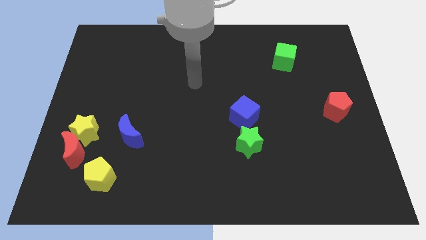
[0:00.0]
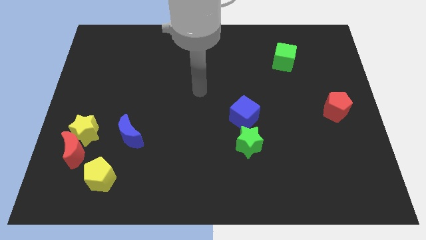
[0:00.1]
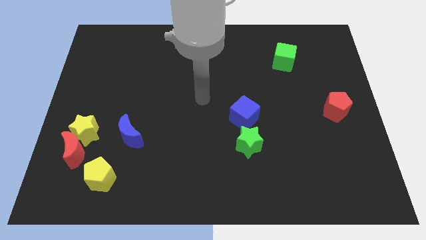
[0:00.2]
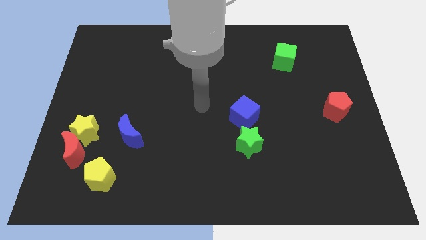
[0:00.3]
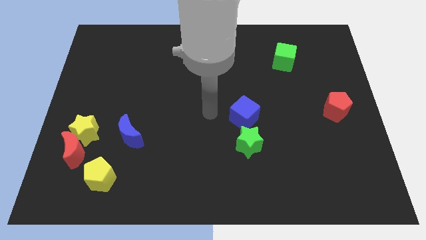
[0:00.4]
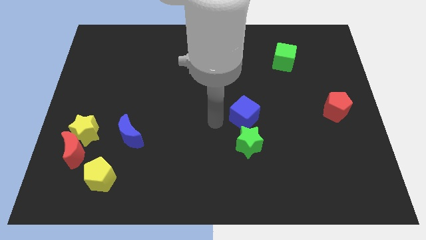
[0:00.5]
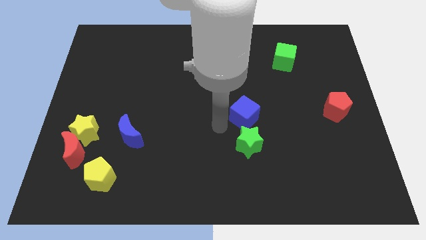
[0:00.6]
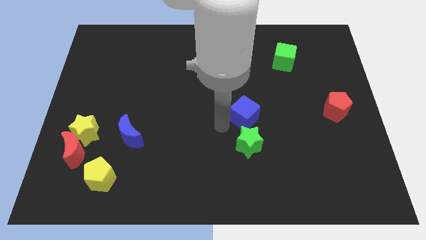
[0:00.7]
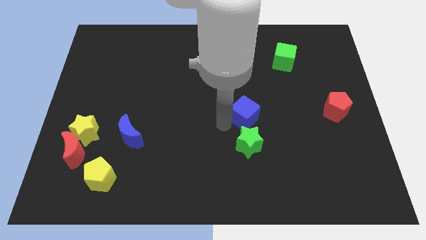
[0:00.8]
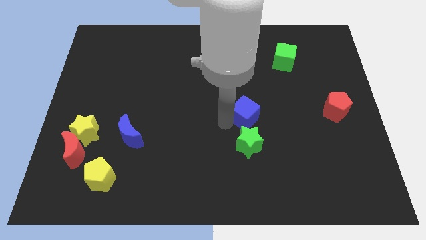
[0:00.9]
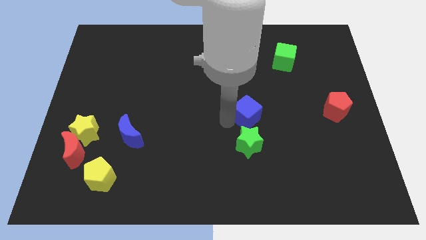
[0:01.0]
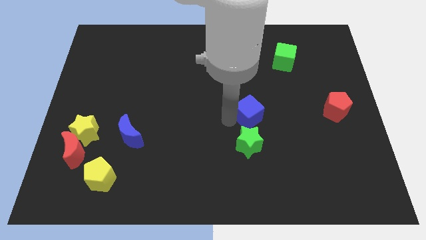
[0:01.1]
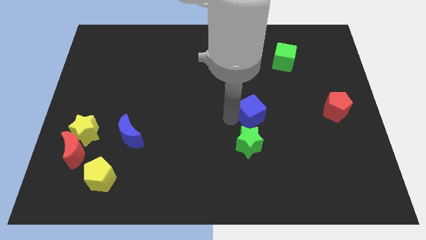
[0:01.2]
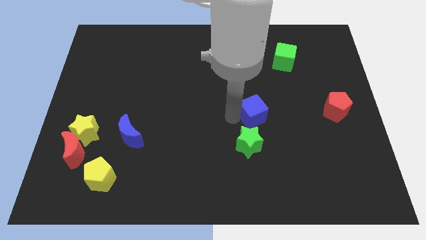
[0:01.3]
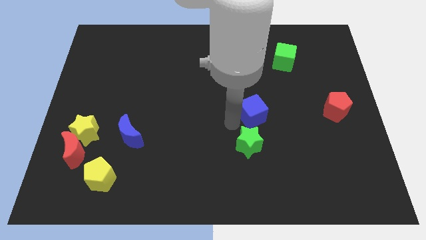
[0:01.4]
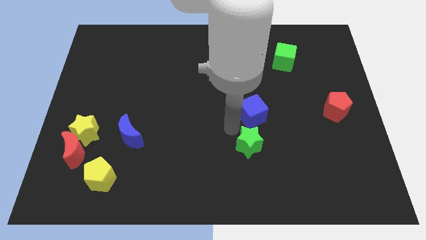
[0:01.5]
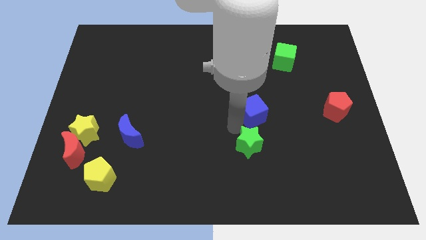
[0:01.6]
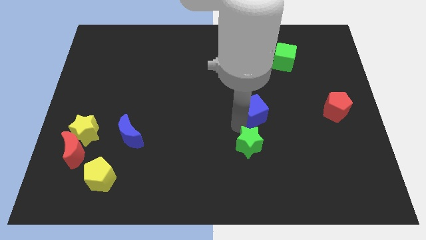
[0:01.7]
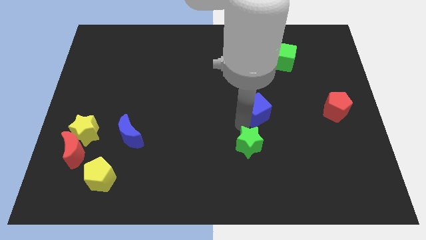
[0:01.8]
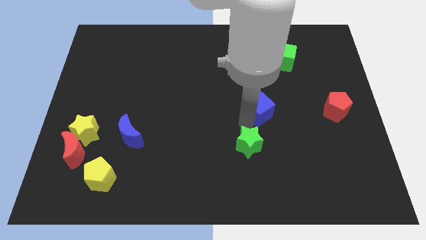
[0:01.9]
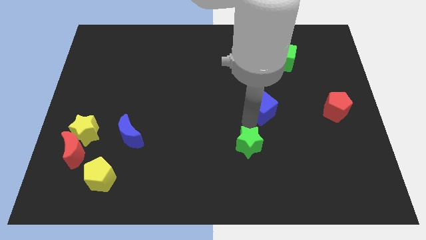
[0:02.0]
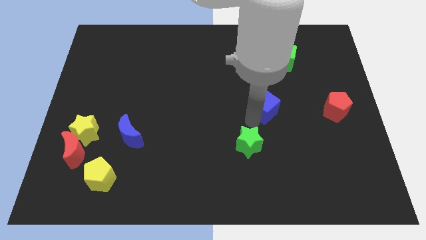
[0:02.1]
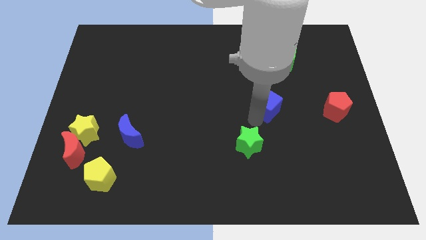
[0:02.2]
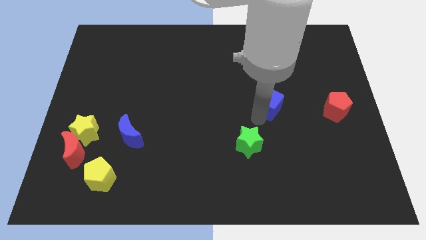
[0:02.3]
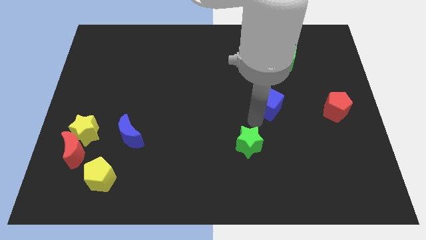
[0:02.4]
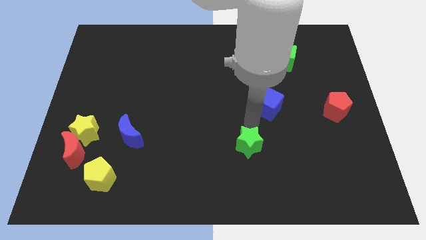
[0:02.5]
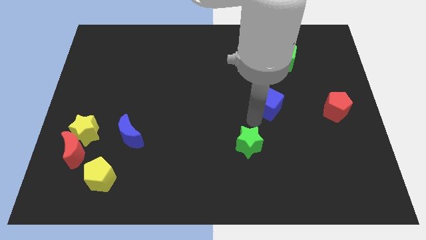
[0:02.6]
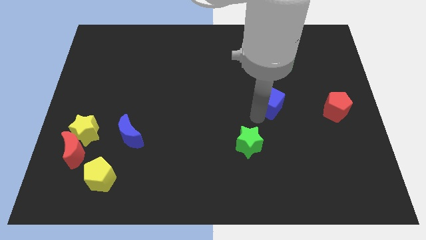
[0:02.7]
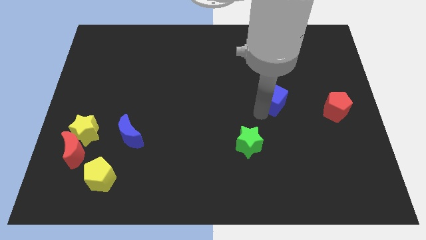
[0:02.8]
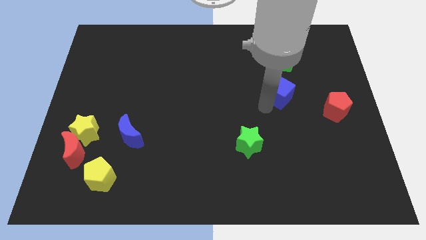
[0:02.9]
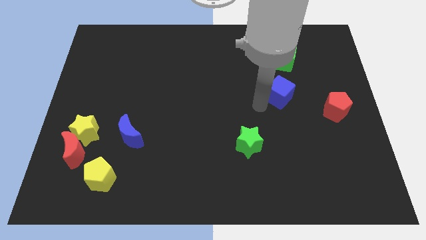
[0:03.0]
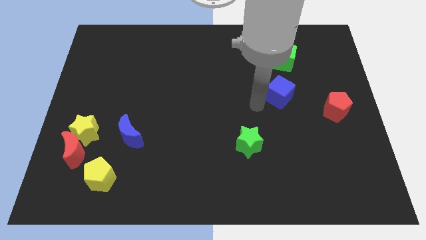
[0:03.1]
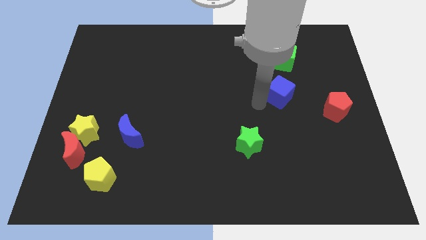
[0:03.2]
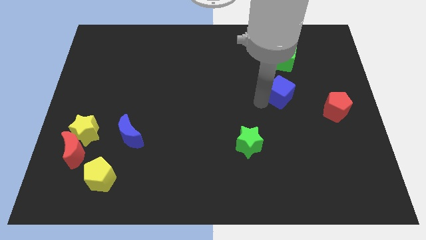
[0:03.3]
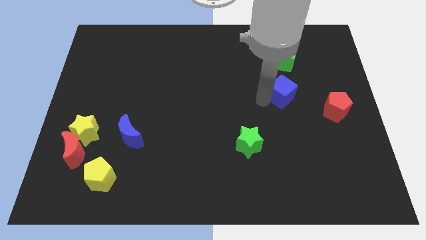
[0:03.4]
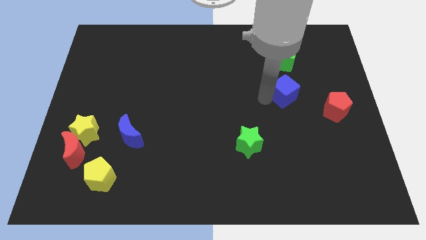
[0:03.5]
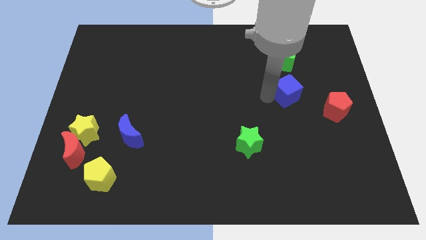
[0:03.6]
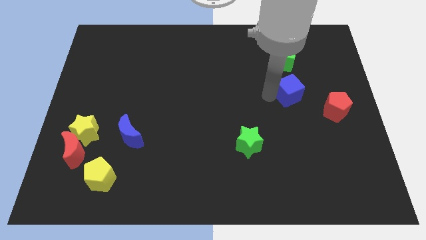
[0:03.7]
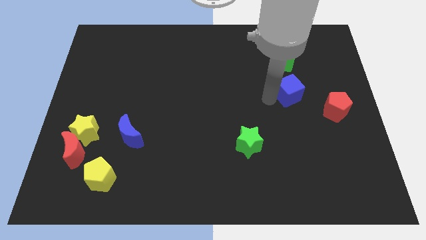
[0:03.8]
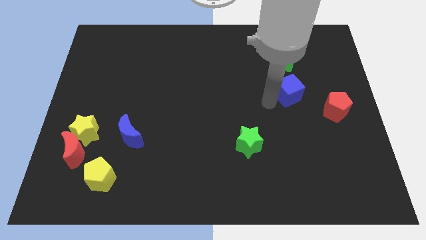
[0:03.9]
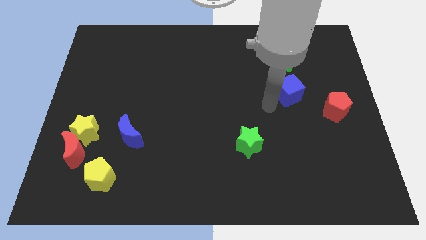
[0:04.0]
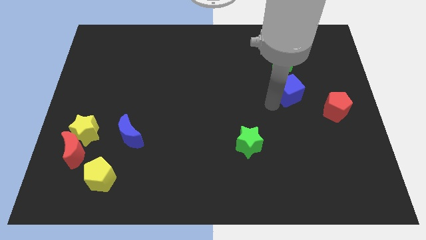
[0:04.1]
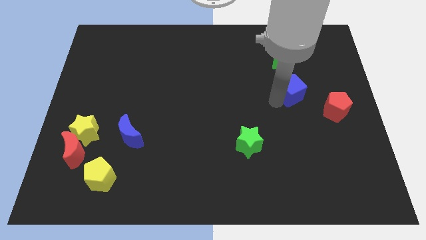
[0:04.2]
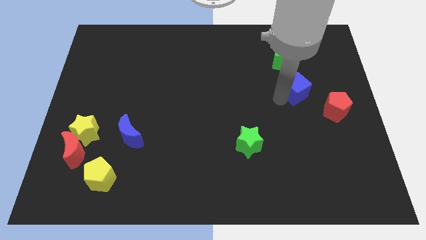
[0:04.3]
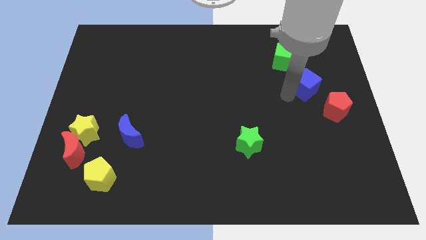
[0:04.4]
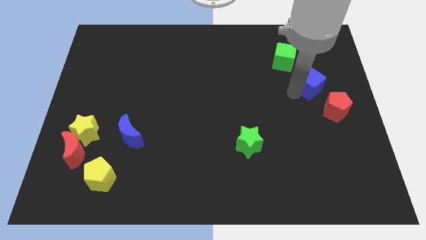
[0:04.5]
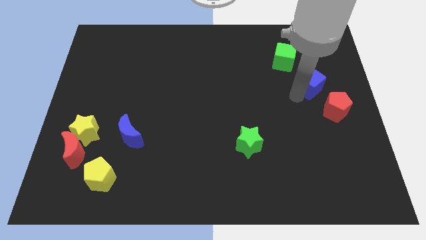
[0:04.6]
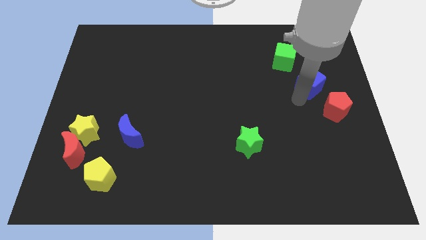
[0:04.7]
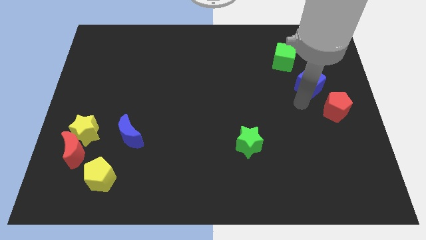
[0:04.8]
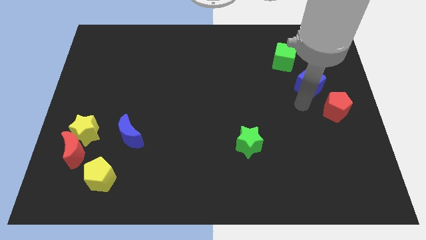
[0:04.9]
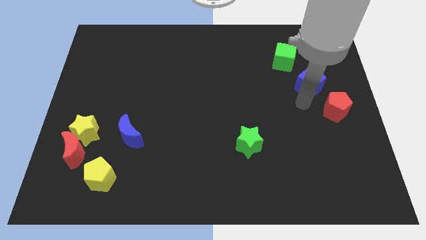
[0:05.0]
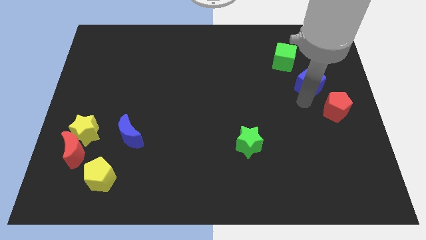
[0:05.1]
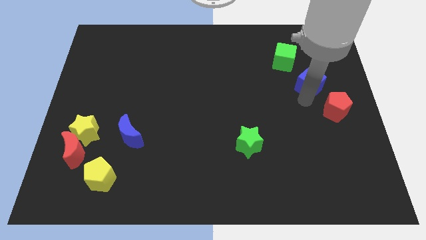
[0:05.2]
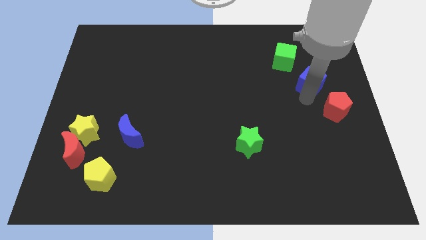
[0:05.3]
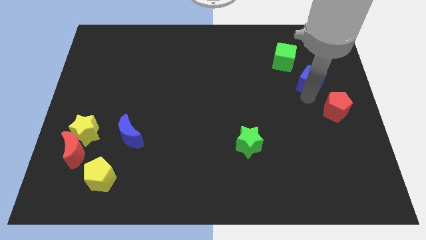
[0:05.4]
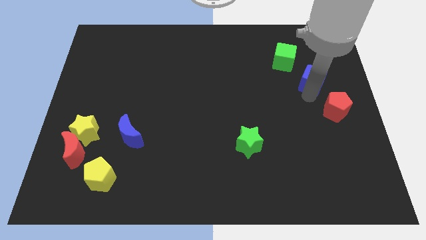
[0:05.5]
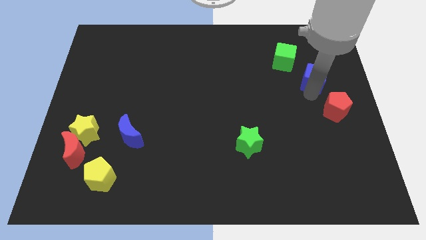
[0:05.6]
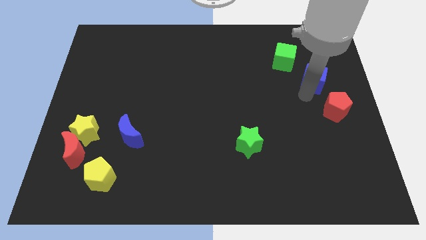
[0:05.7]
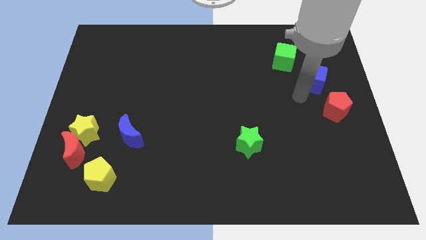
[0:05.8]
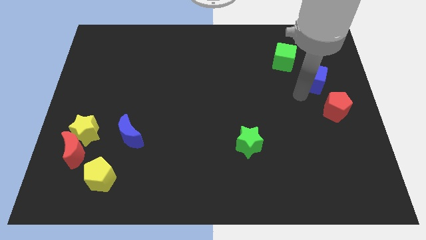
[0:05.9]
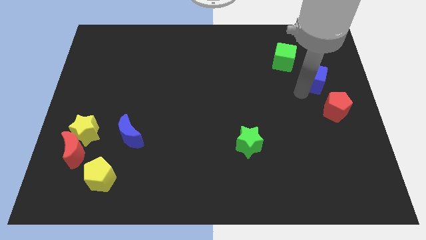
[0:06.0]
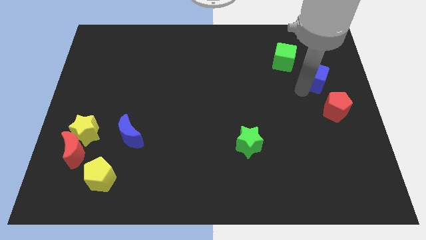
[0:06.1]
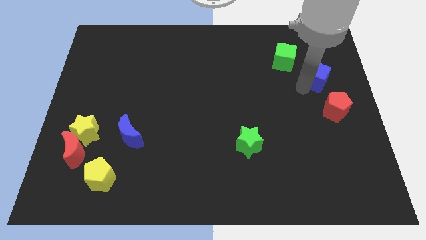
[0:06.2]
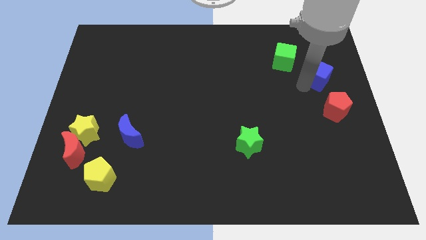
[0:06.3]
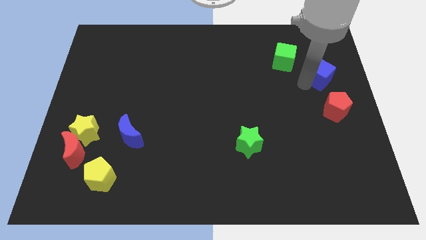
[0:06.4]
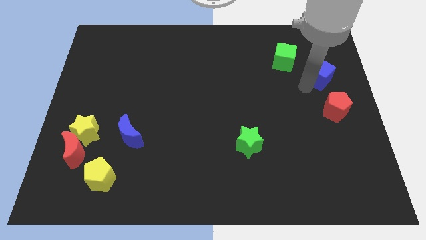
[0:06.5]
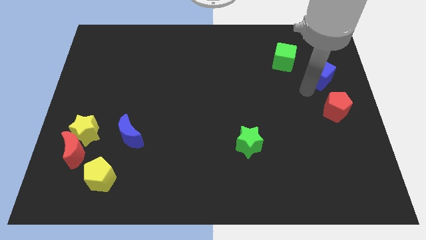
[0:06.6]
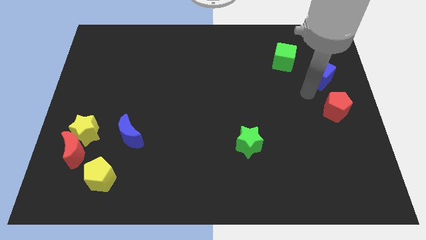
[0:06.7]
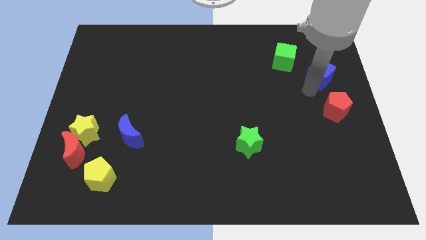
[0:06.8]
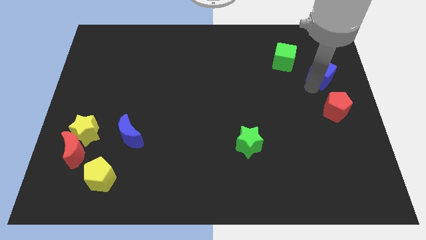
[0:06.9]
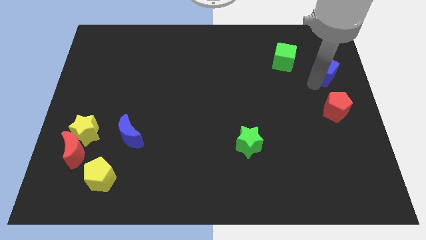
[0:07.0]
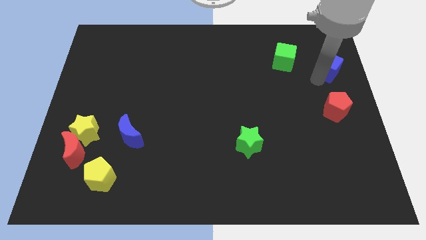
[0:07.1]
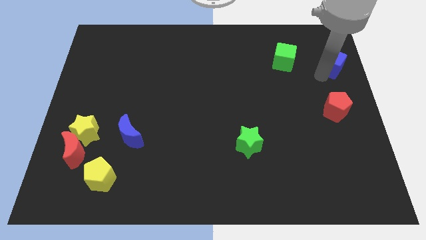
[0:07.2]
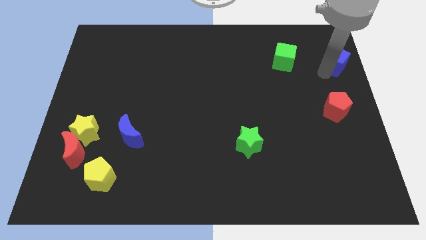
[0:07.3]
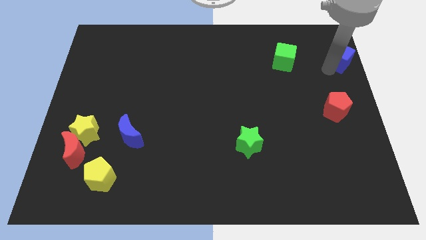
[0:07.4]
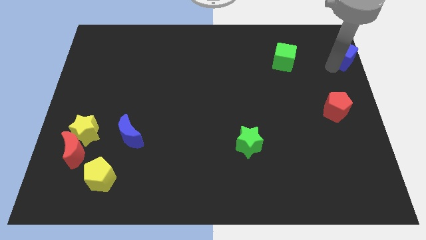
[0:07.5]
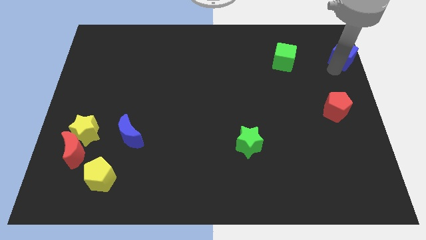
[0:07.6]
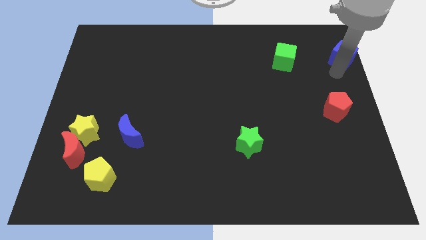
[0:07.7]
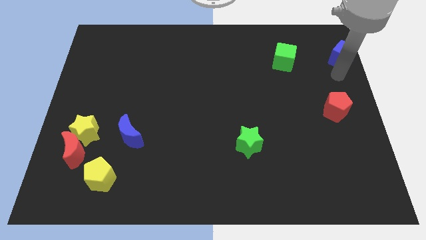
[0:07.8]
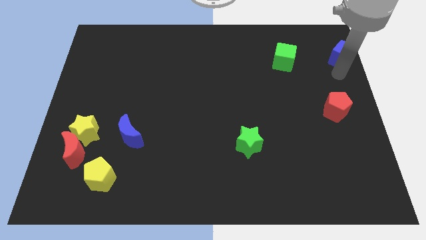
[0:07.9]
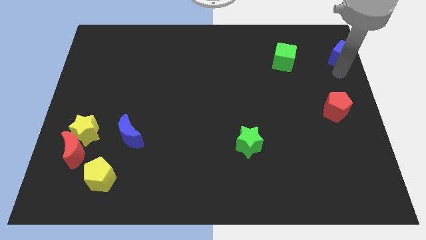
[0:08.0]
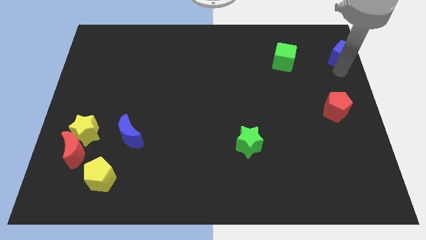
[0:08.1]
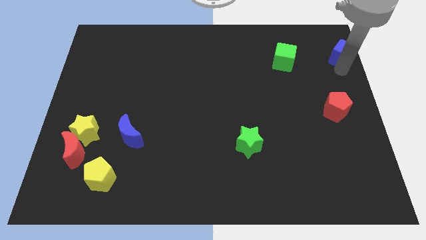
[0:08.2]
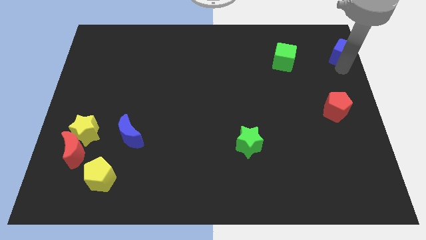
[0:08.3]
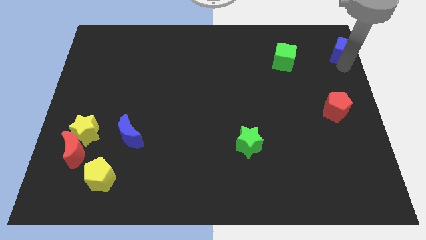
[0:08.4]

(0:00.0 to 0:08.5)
push the blue cube to the top right of the board
